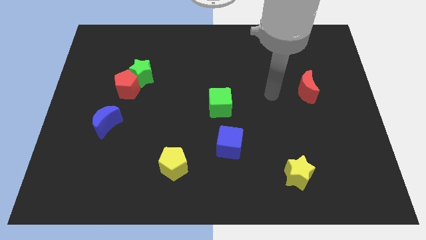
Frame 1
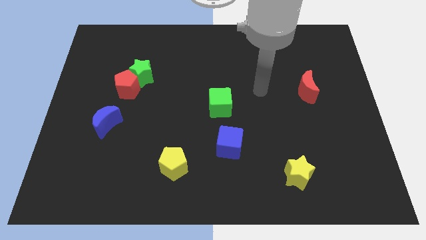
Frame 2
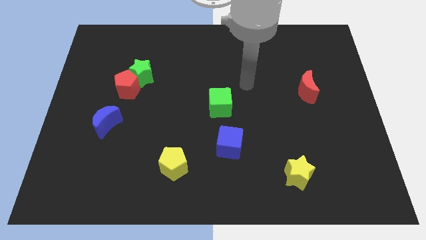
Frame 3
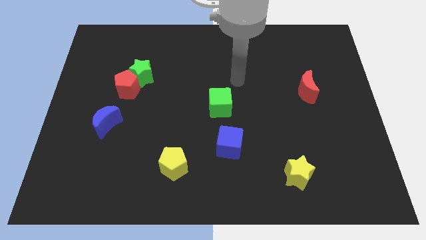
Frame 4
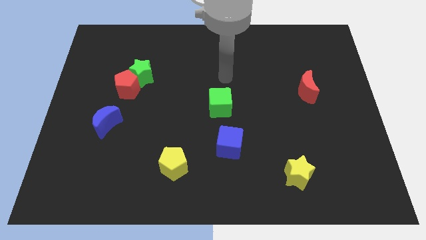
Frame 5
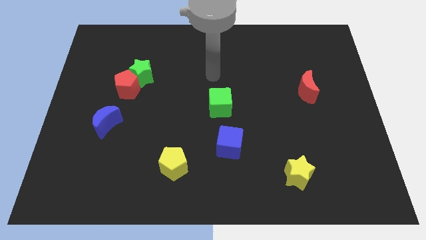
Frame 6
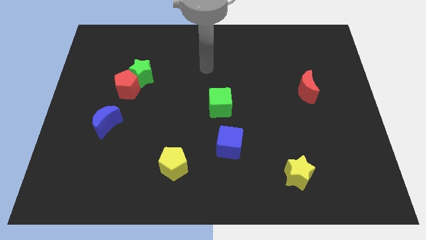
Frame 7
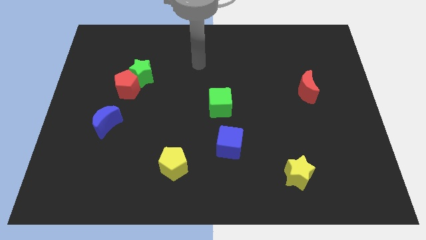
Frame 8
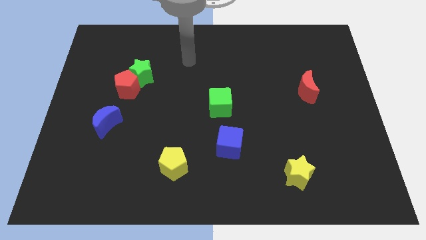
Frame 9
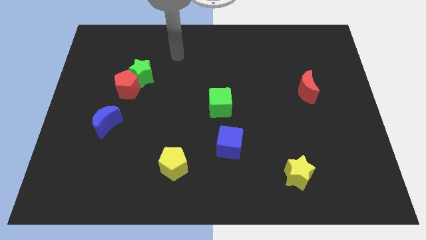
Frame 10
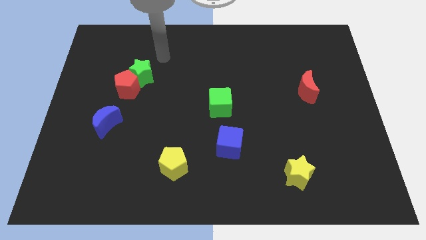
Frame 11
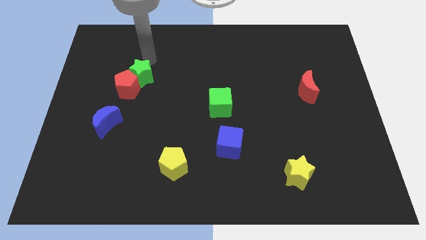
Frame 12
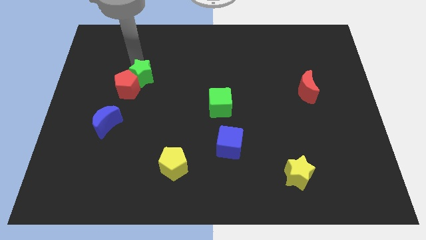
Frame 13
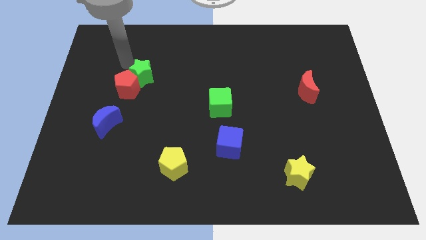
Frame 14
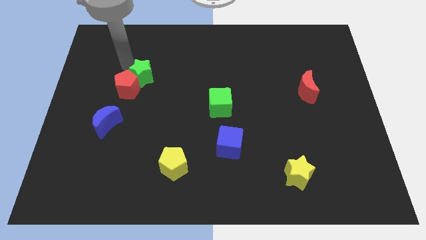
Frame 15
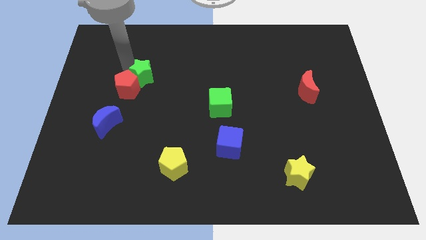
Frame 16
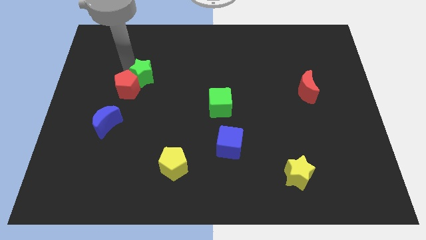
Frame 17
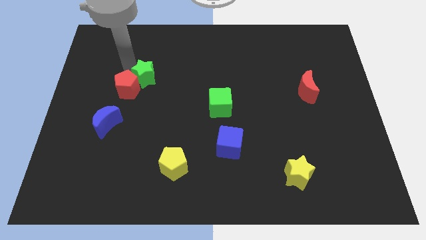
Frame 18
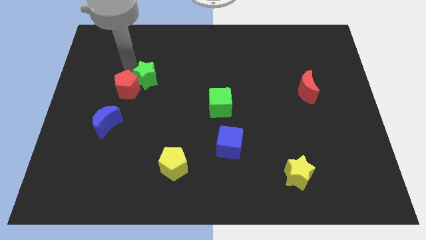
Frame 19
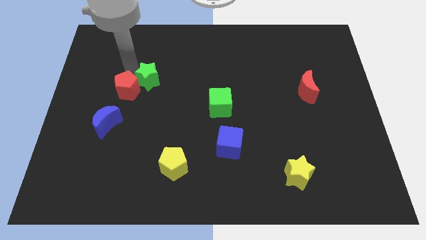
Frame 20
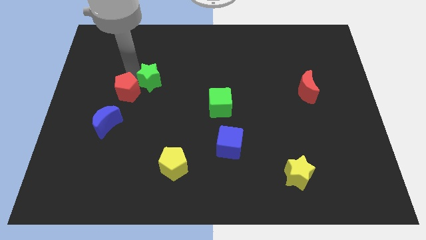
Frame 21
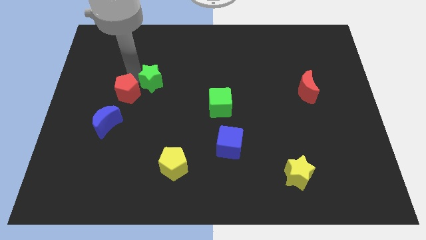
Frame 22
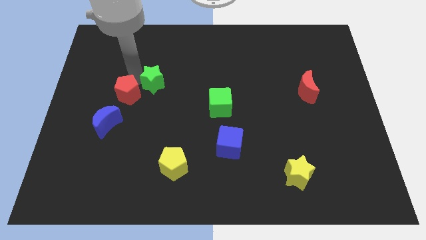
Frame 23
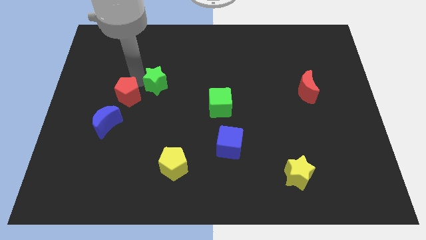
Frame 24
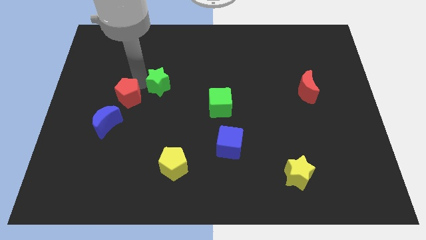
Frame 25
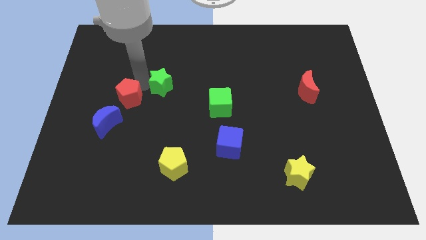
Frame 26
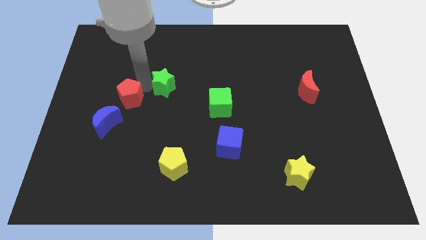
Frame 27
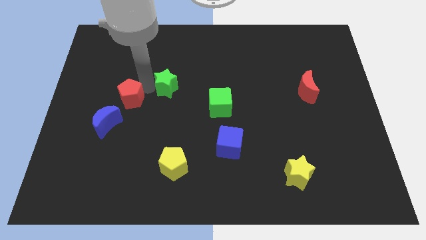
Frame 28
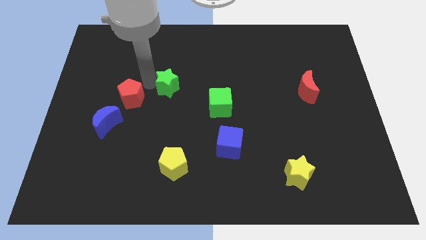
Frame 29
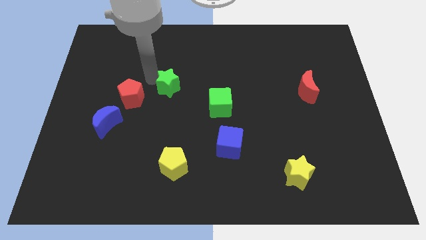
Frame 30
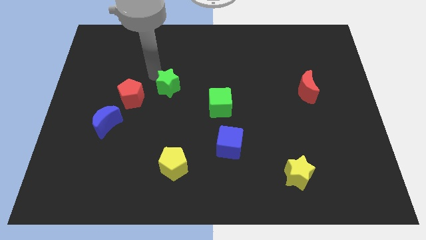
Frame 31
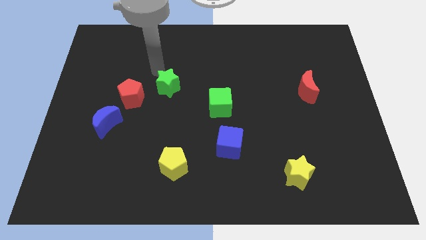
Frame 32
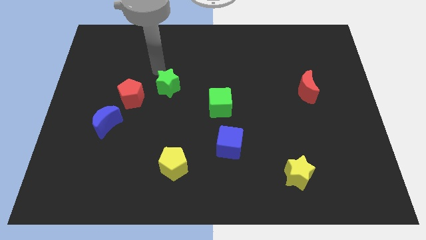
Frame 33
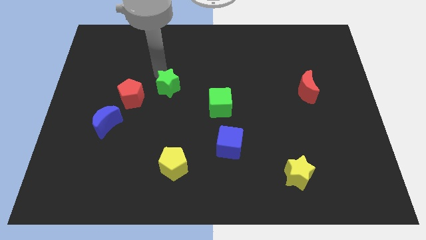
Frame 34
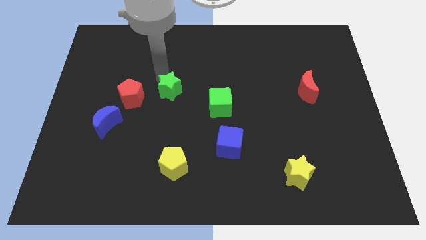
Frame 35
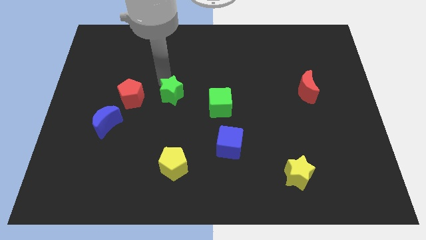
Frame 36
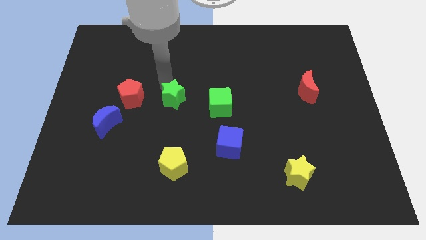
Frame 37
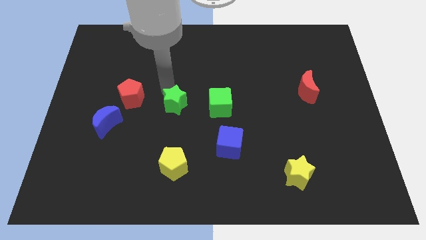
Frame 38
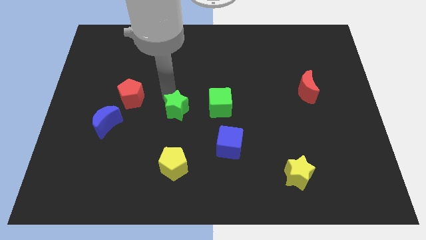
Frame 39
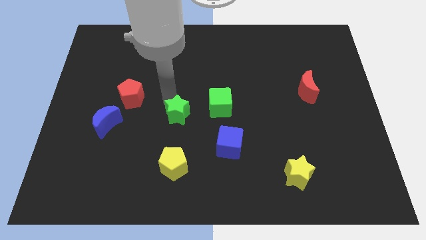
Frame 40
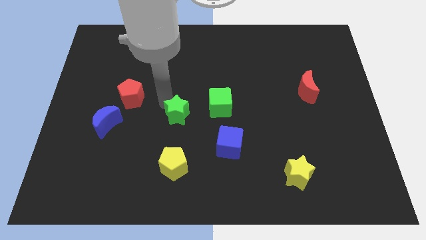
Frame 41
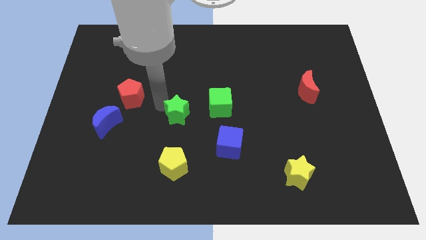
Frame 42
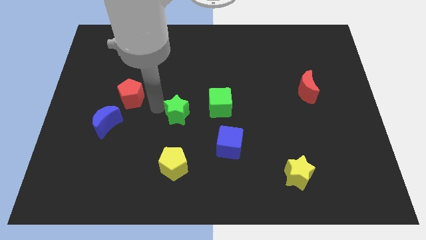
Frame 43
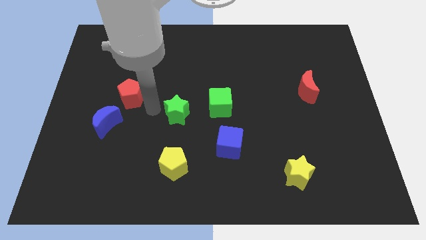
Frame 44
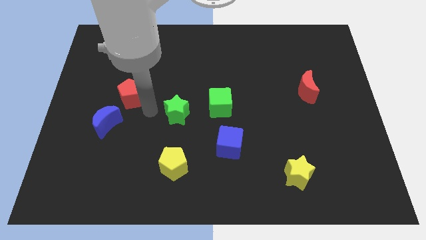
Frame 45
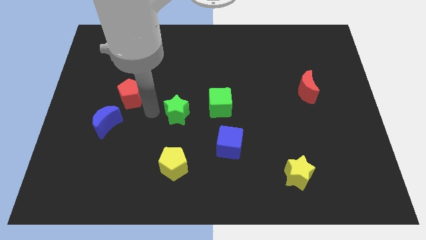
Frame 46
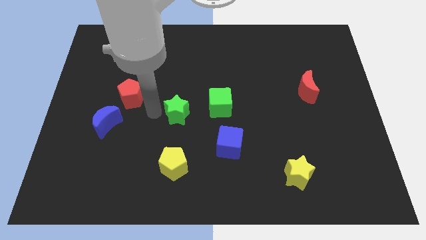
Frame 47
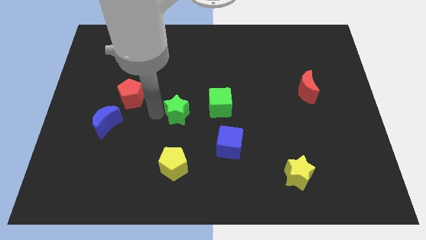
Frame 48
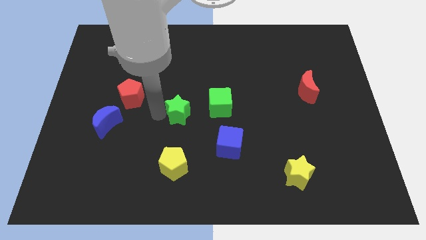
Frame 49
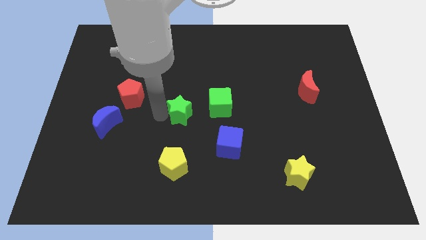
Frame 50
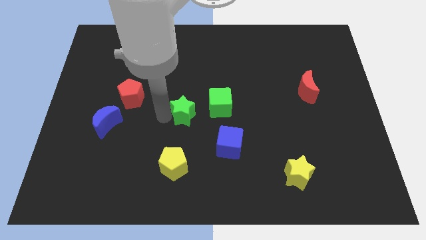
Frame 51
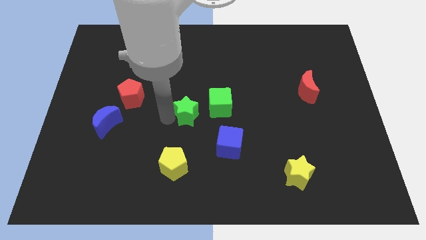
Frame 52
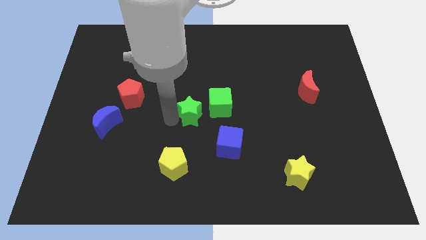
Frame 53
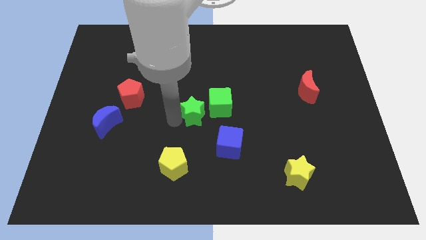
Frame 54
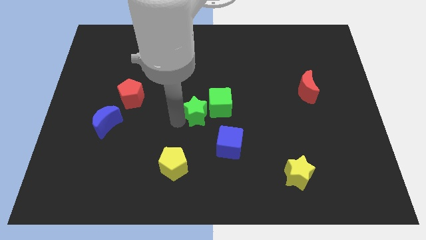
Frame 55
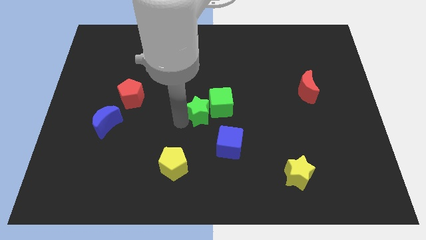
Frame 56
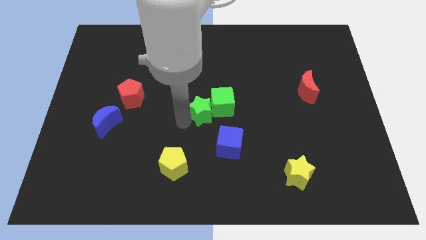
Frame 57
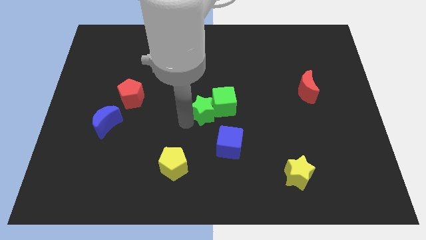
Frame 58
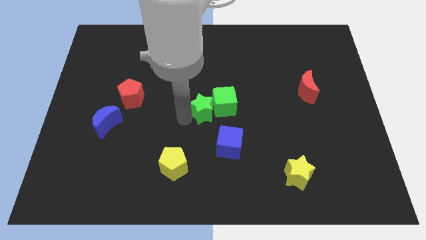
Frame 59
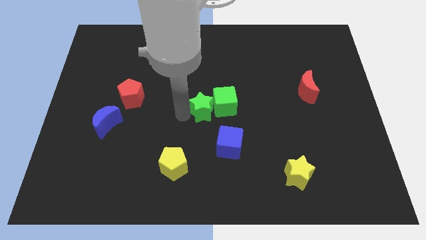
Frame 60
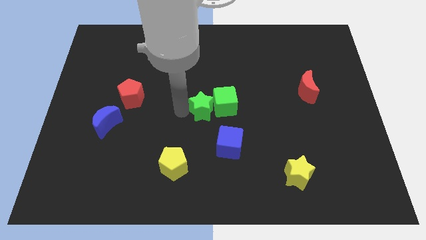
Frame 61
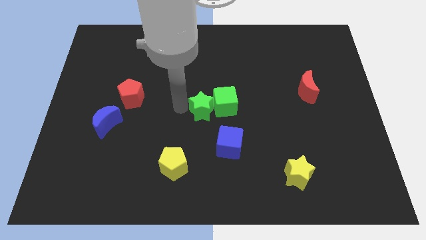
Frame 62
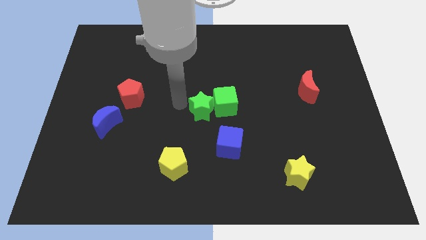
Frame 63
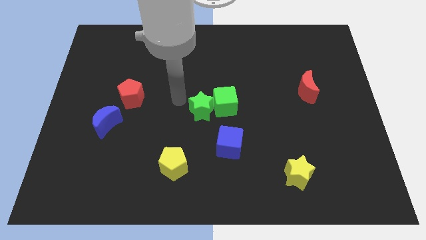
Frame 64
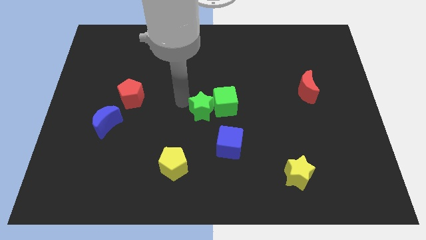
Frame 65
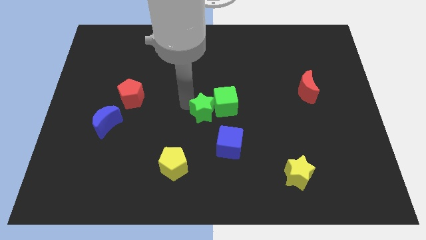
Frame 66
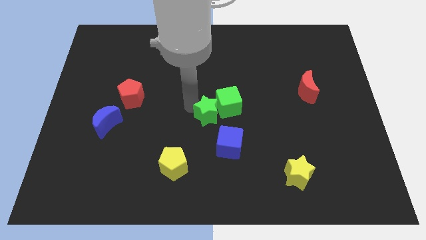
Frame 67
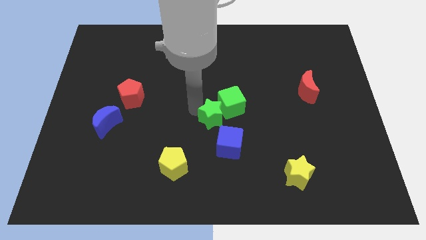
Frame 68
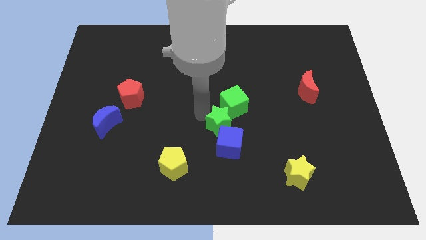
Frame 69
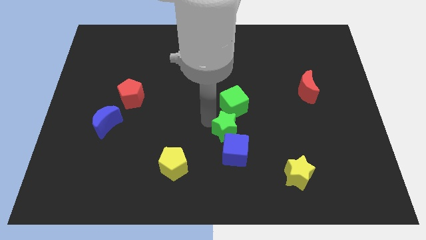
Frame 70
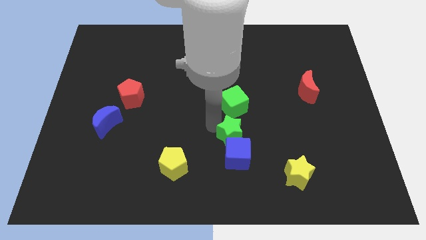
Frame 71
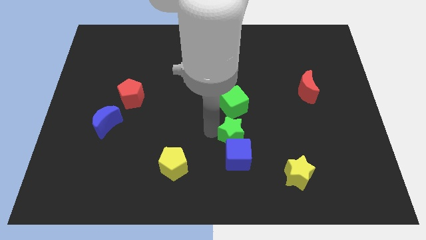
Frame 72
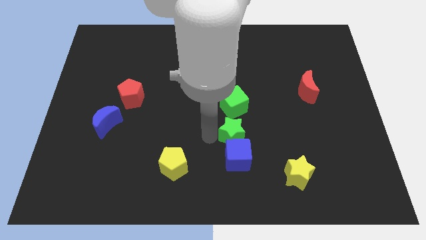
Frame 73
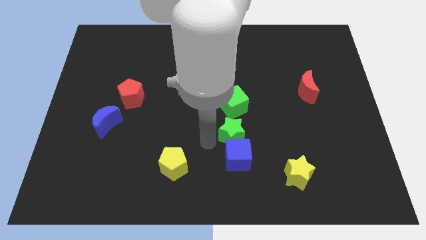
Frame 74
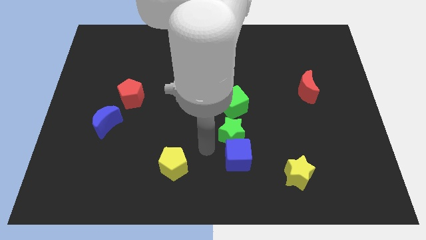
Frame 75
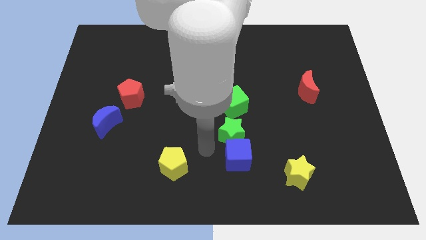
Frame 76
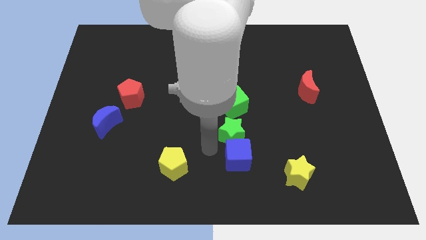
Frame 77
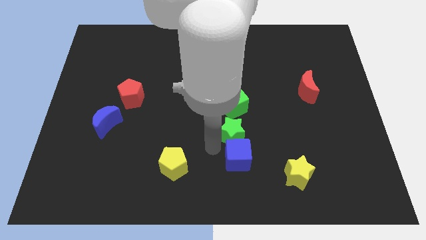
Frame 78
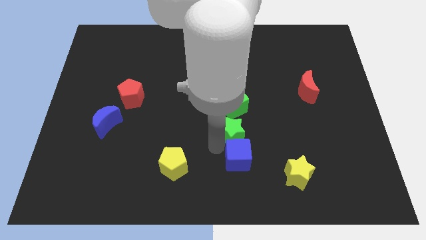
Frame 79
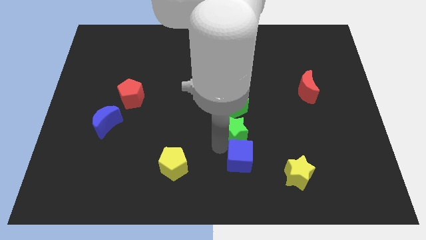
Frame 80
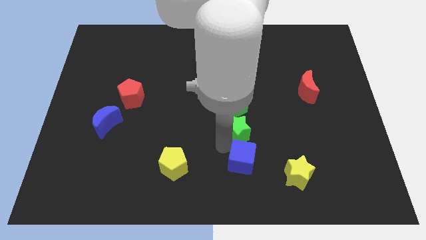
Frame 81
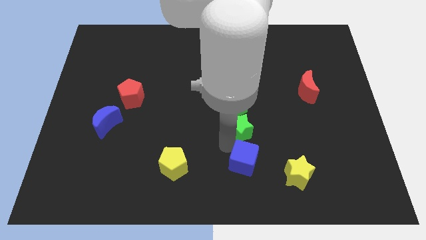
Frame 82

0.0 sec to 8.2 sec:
push the green star to the bottom right of the green cube

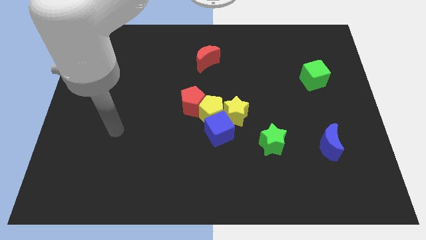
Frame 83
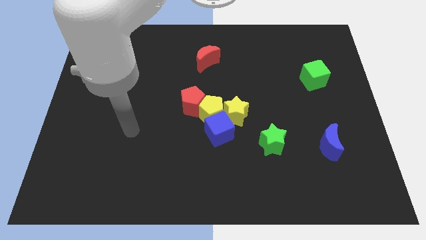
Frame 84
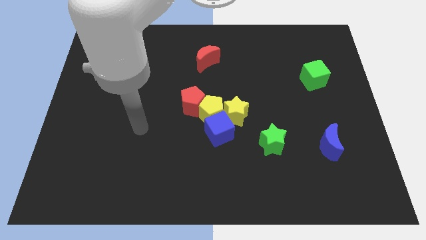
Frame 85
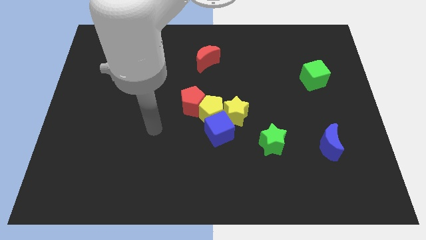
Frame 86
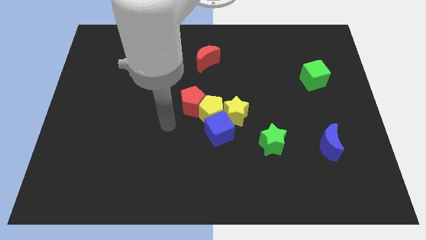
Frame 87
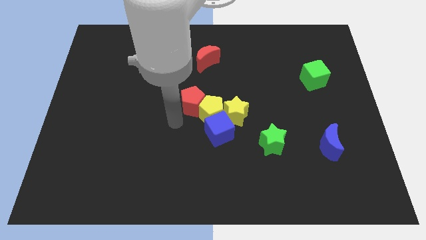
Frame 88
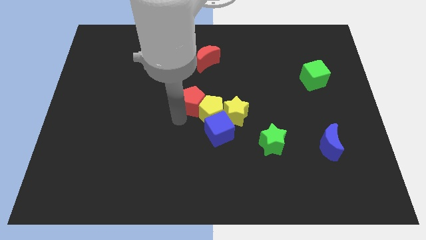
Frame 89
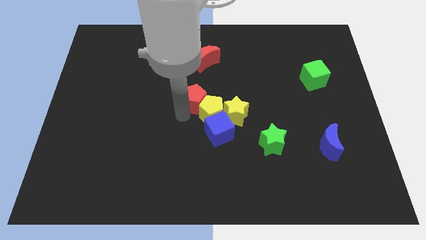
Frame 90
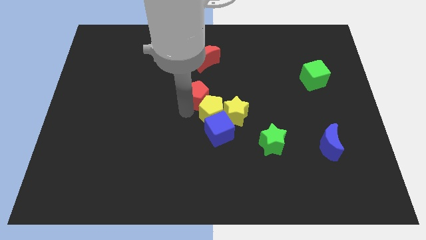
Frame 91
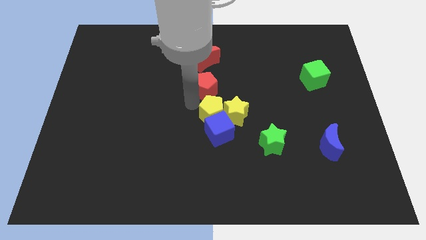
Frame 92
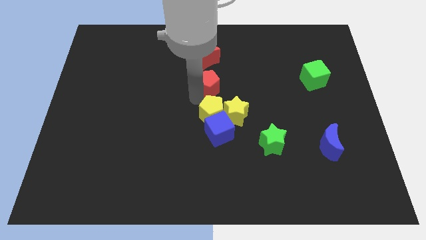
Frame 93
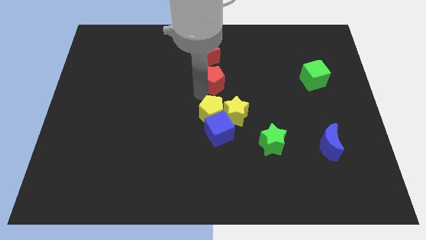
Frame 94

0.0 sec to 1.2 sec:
move the red pentagon to the bottom right side of the red moon
